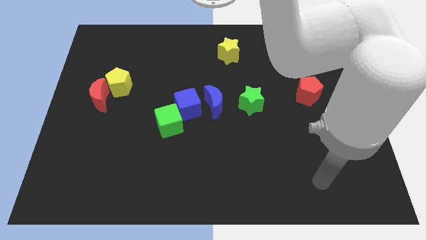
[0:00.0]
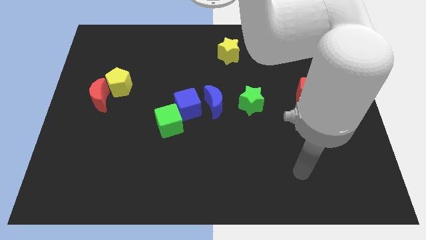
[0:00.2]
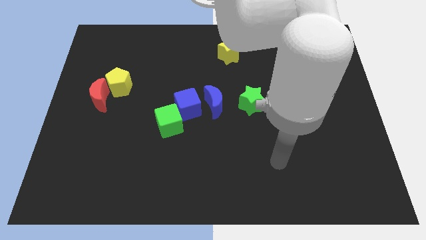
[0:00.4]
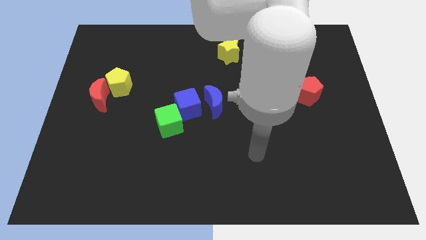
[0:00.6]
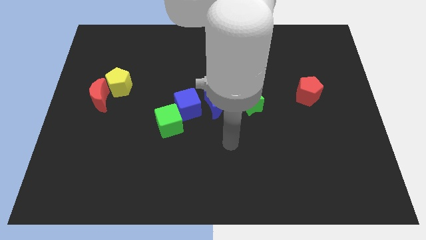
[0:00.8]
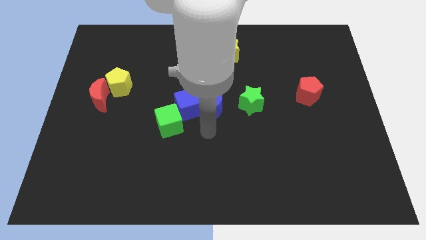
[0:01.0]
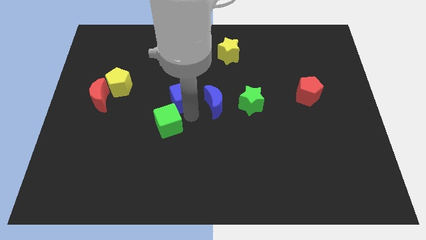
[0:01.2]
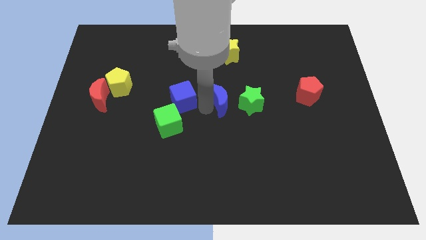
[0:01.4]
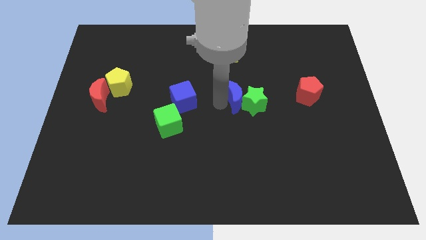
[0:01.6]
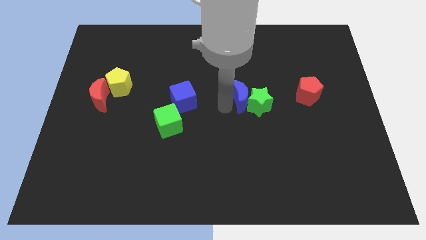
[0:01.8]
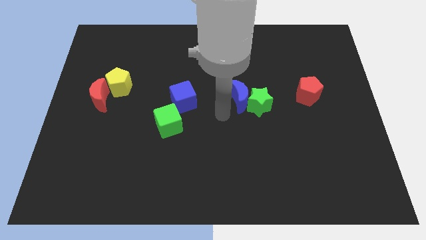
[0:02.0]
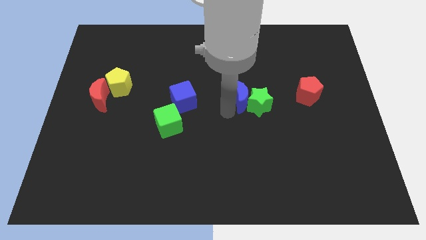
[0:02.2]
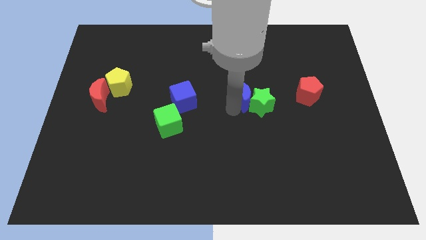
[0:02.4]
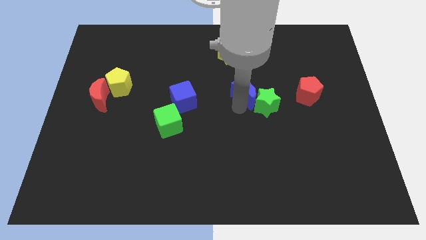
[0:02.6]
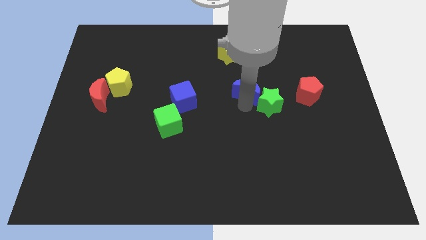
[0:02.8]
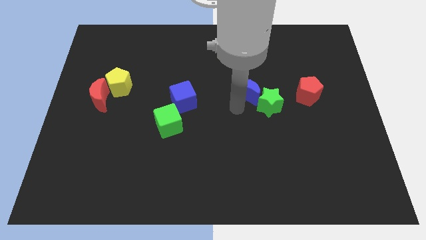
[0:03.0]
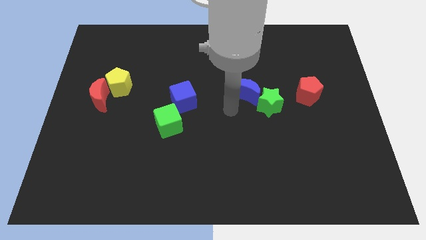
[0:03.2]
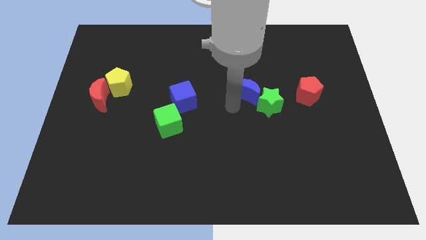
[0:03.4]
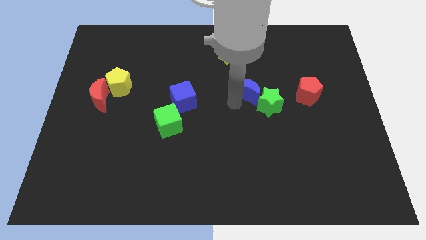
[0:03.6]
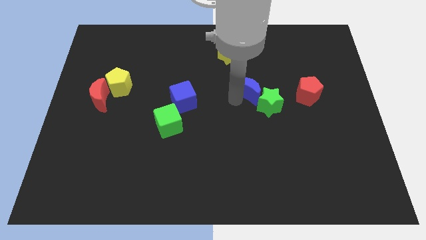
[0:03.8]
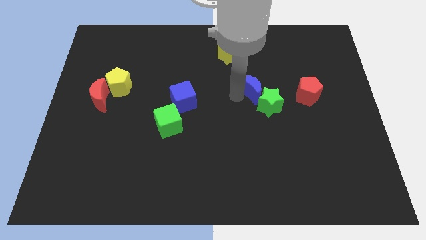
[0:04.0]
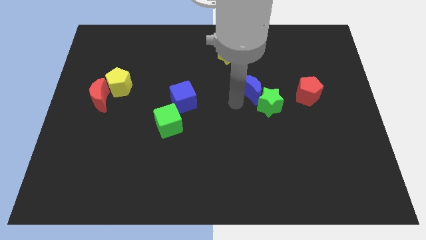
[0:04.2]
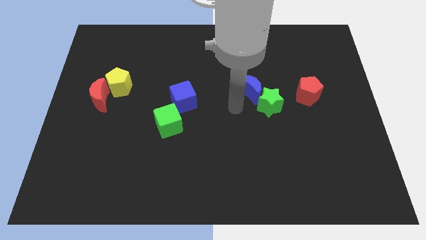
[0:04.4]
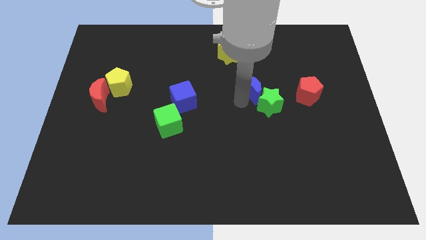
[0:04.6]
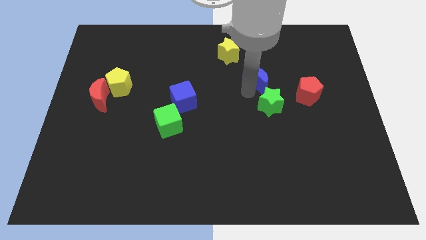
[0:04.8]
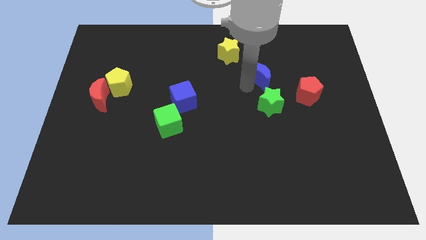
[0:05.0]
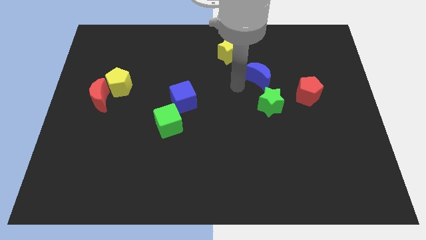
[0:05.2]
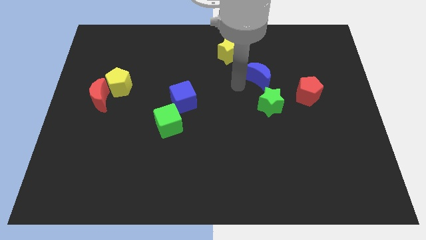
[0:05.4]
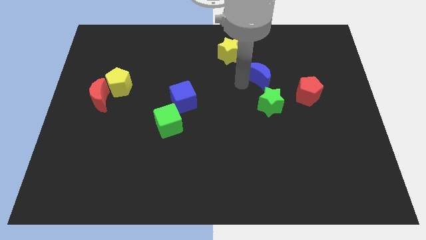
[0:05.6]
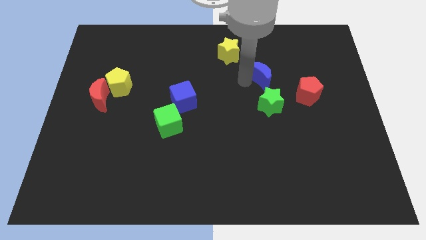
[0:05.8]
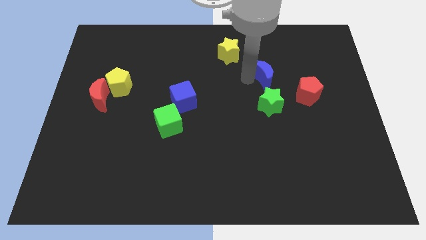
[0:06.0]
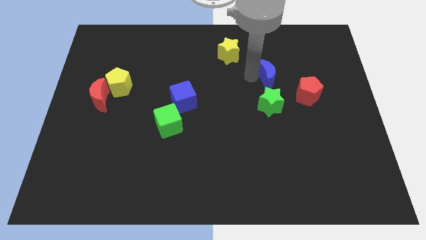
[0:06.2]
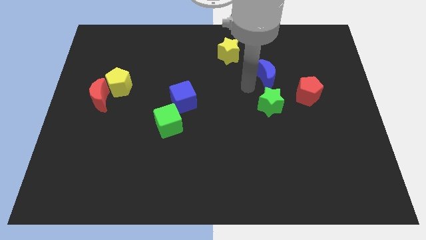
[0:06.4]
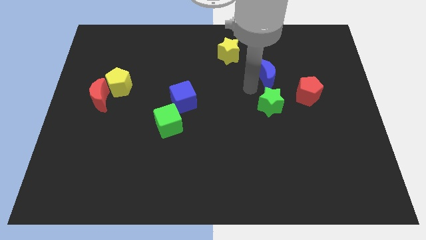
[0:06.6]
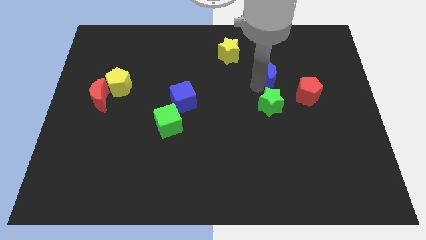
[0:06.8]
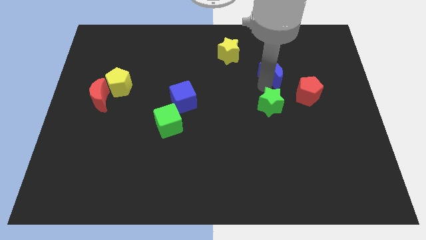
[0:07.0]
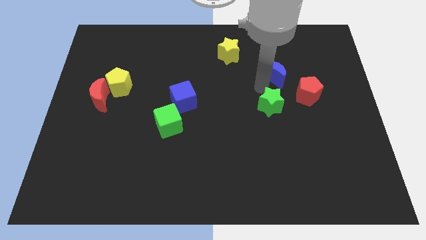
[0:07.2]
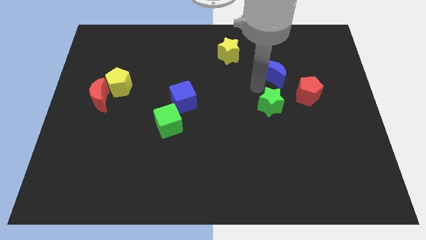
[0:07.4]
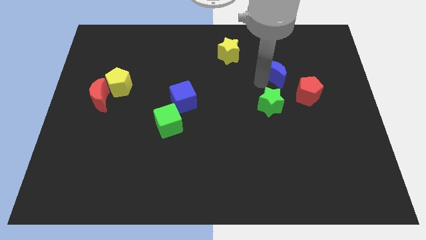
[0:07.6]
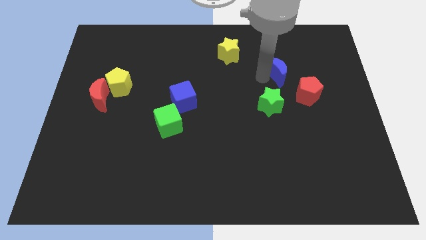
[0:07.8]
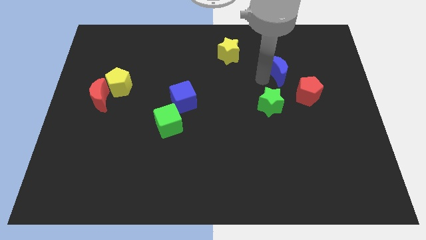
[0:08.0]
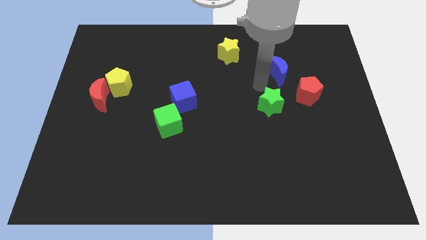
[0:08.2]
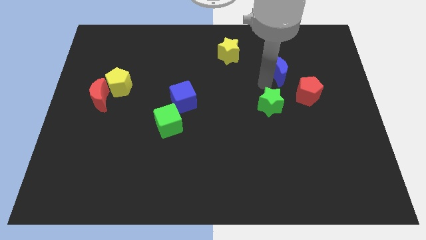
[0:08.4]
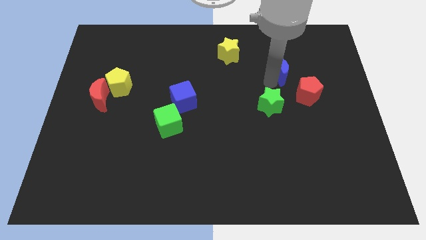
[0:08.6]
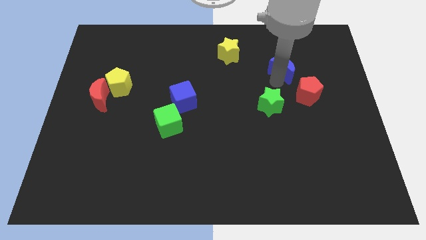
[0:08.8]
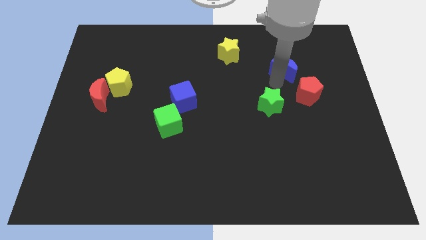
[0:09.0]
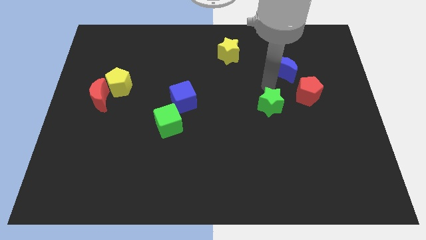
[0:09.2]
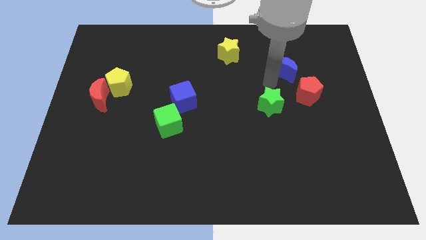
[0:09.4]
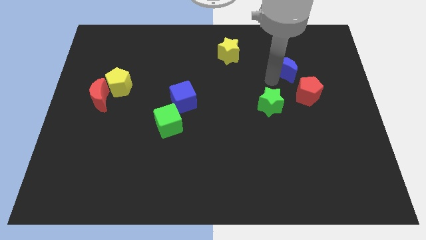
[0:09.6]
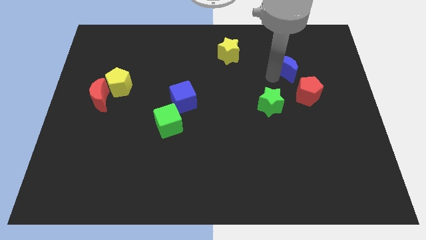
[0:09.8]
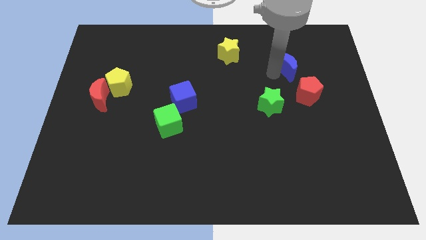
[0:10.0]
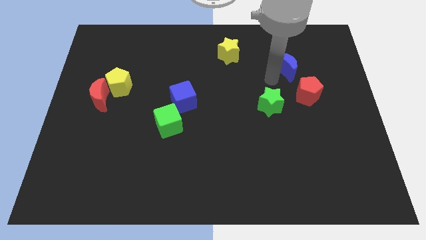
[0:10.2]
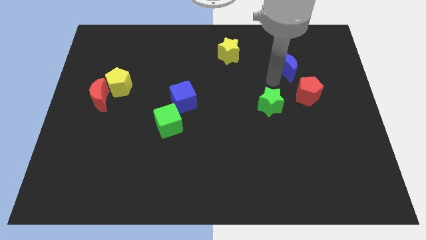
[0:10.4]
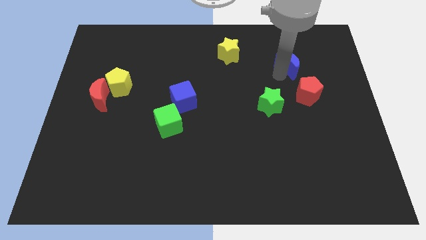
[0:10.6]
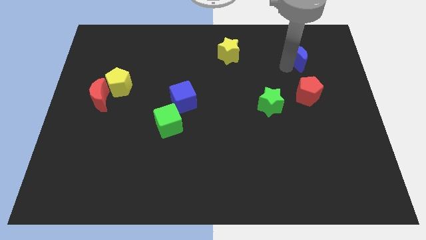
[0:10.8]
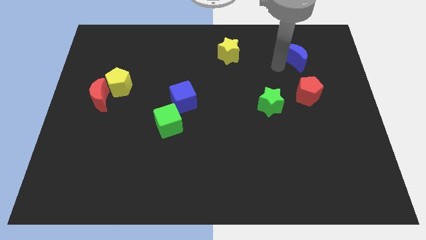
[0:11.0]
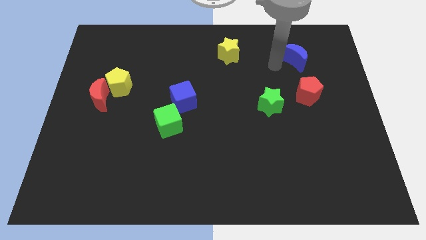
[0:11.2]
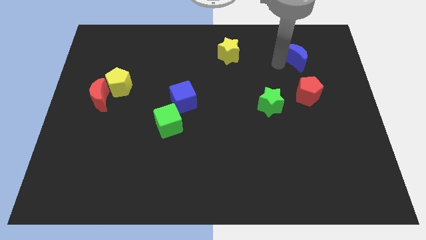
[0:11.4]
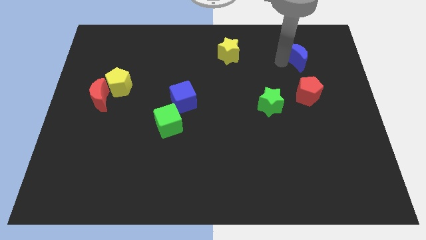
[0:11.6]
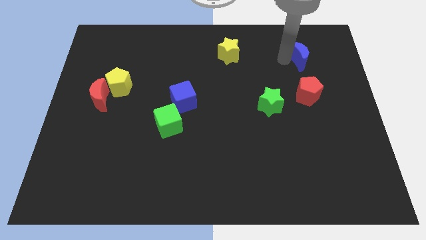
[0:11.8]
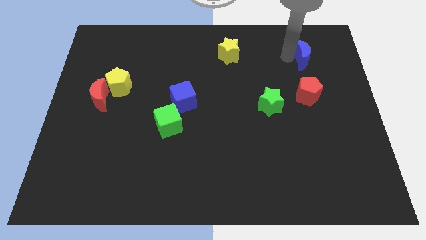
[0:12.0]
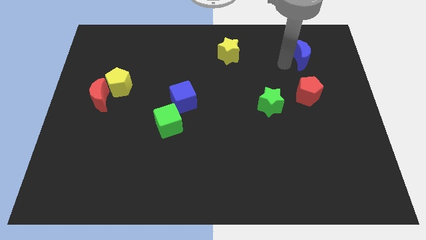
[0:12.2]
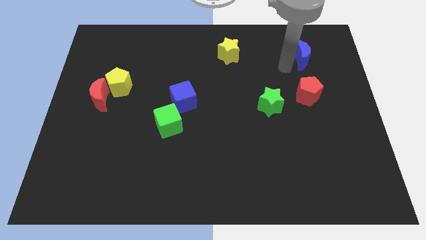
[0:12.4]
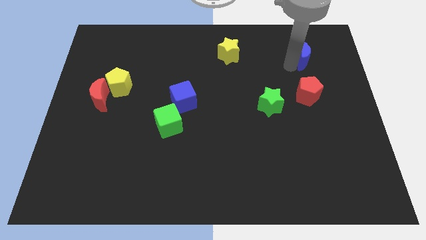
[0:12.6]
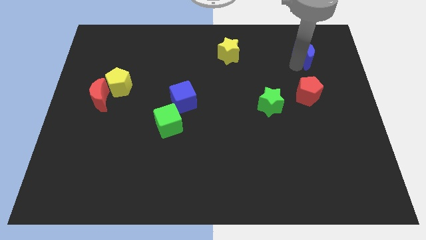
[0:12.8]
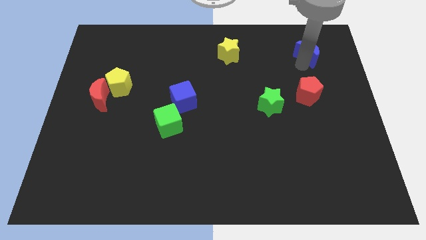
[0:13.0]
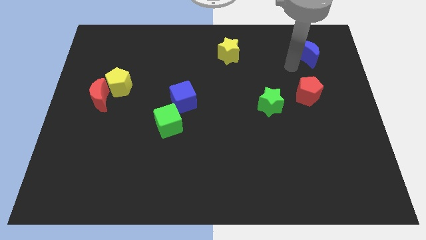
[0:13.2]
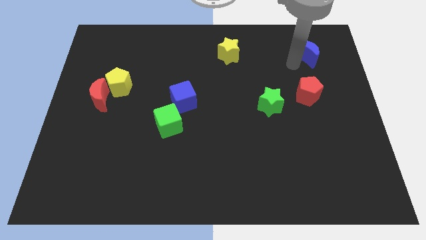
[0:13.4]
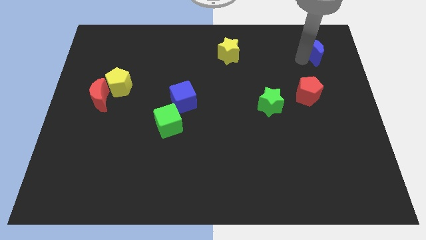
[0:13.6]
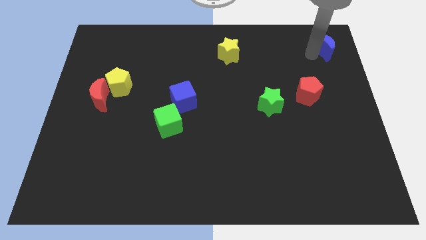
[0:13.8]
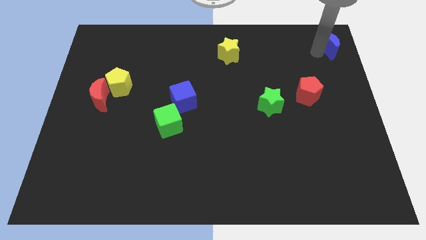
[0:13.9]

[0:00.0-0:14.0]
push the blue moon to the top right
